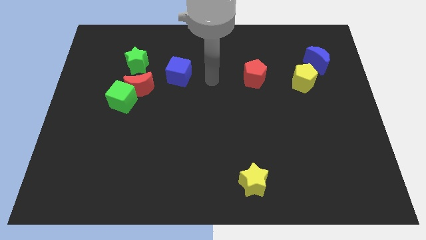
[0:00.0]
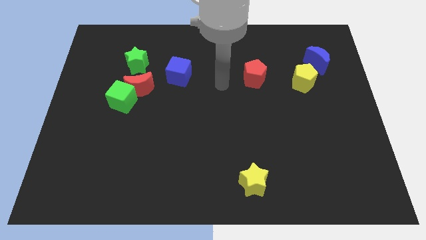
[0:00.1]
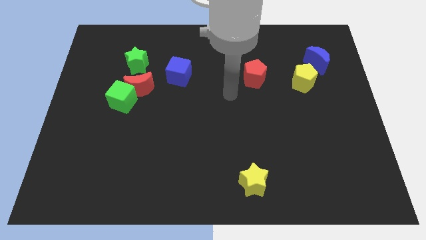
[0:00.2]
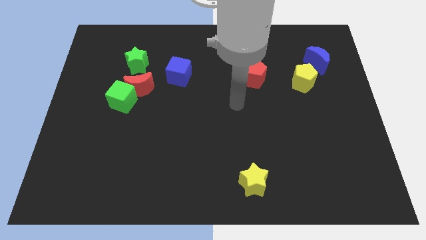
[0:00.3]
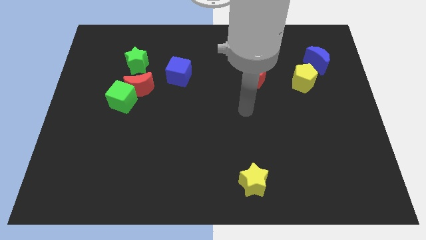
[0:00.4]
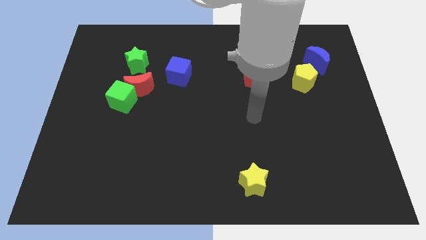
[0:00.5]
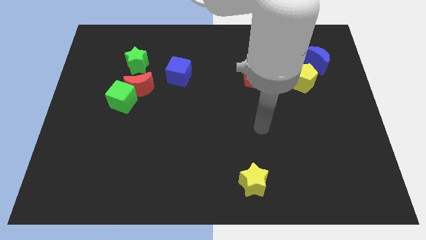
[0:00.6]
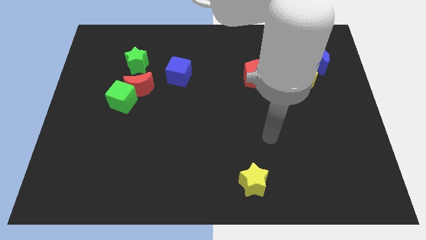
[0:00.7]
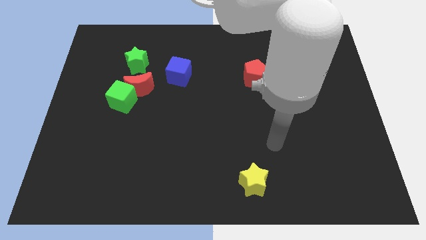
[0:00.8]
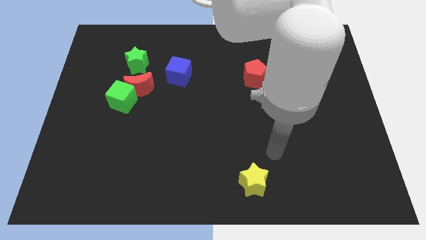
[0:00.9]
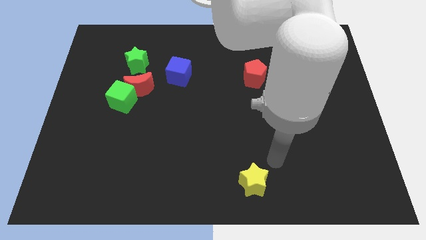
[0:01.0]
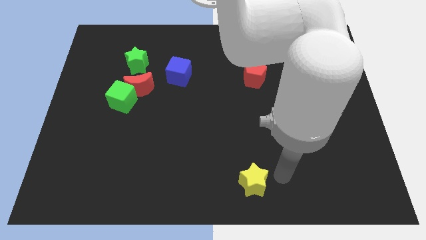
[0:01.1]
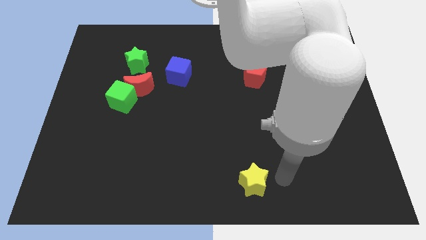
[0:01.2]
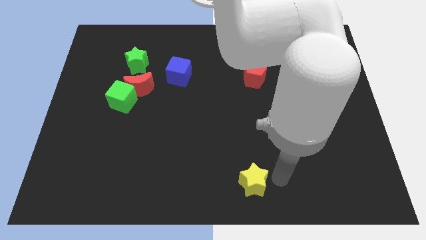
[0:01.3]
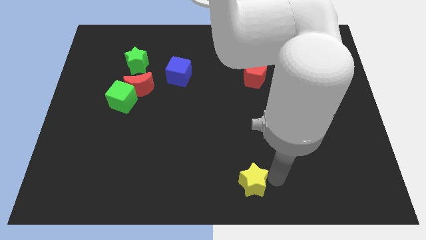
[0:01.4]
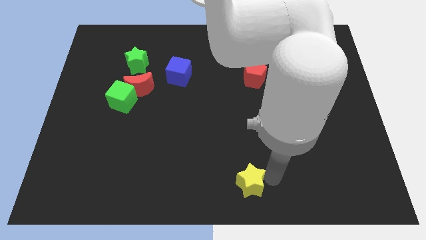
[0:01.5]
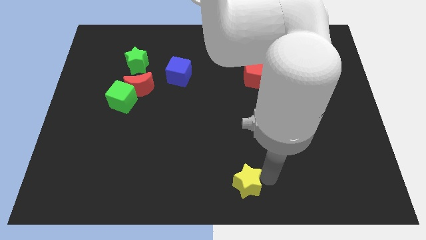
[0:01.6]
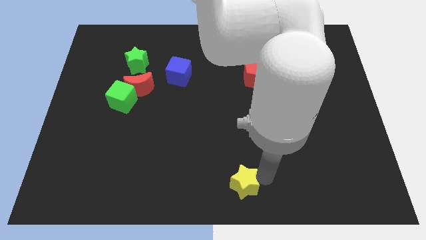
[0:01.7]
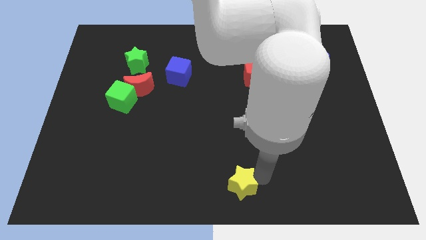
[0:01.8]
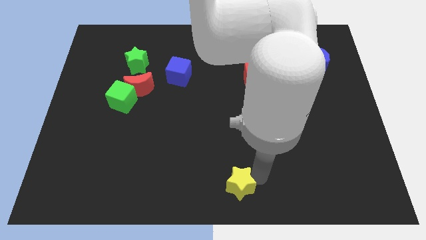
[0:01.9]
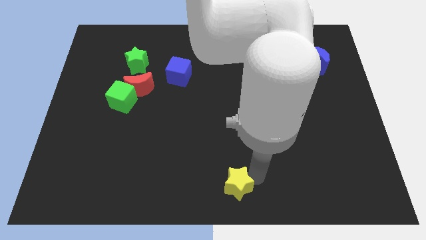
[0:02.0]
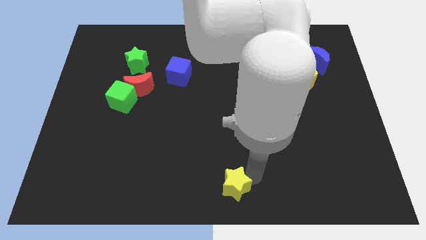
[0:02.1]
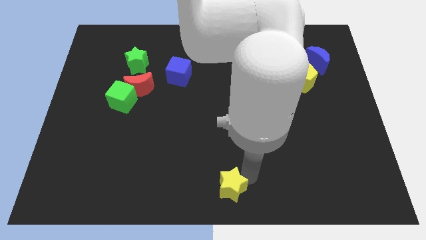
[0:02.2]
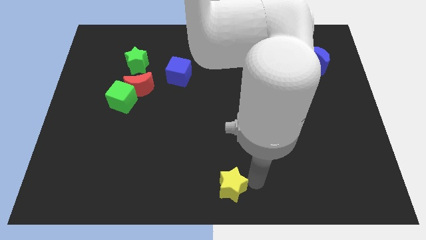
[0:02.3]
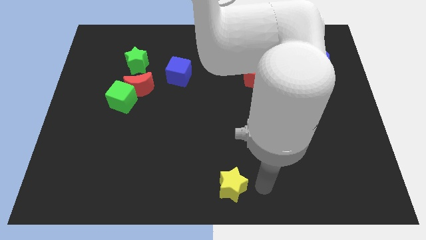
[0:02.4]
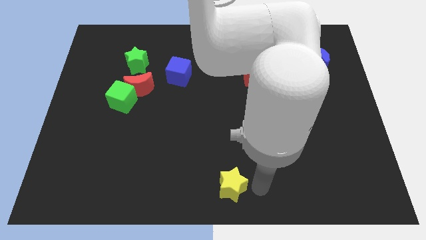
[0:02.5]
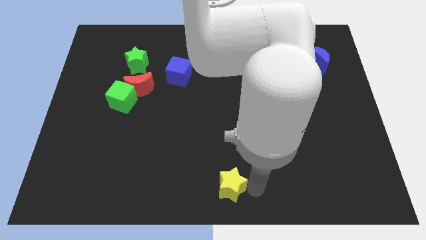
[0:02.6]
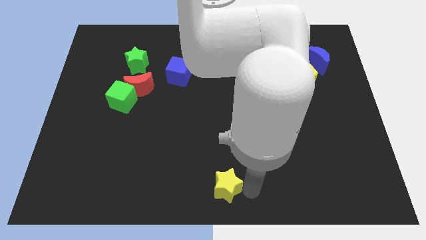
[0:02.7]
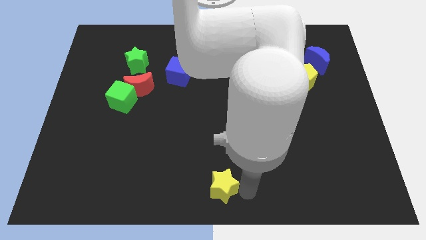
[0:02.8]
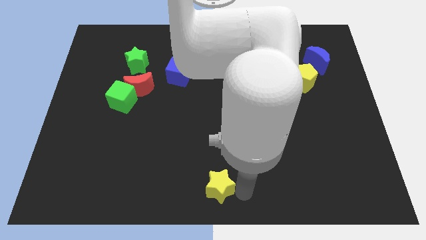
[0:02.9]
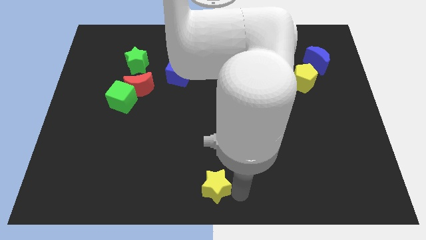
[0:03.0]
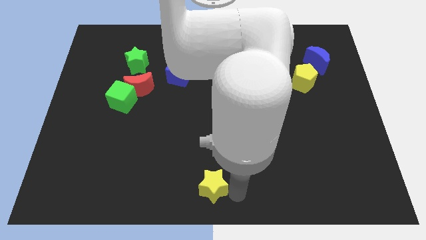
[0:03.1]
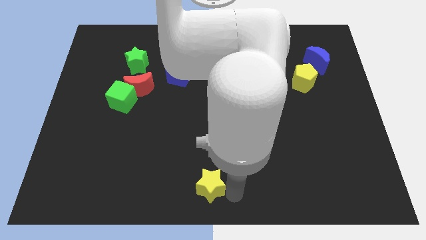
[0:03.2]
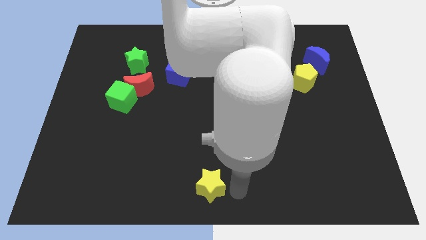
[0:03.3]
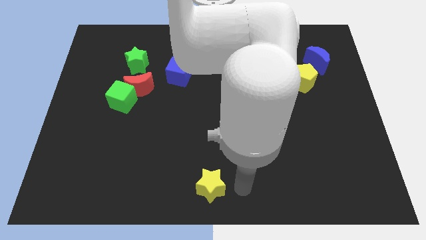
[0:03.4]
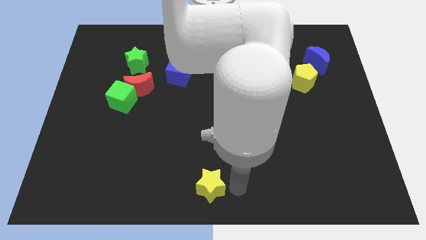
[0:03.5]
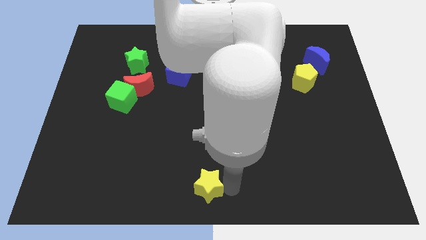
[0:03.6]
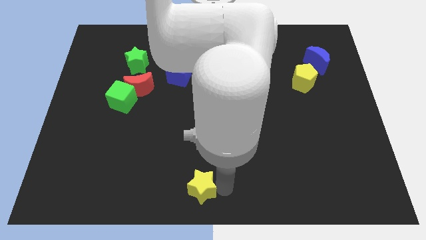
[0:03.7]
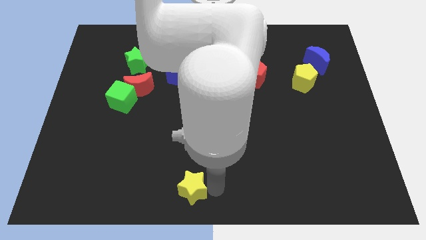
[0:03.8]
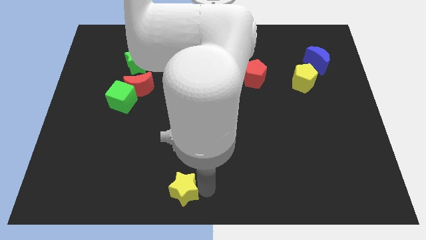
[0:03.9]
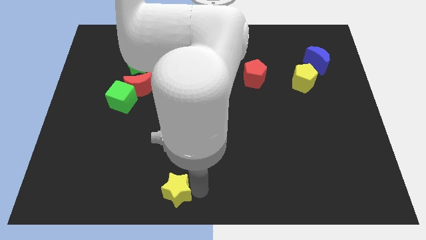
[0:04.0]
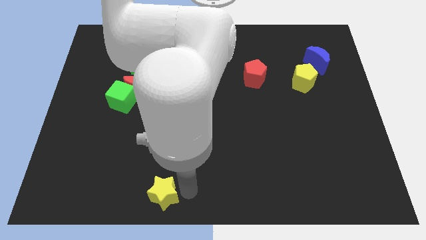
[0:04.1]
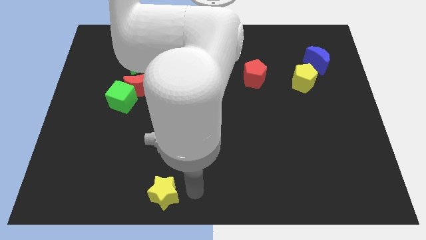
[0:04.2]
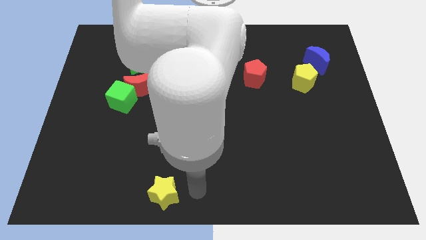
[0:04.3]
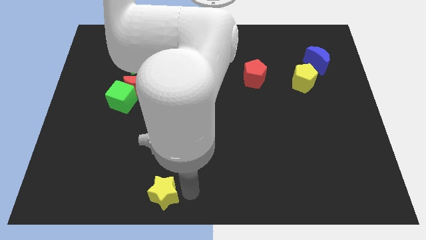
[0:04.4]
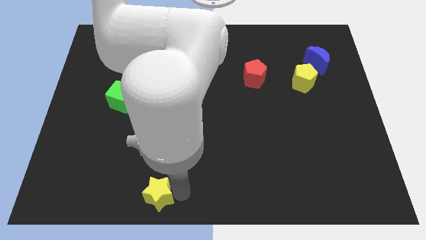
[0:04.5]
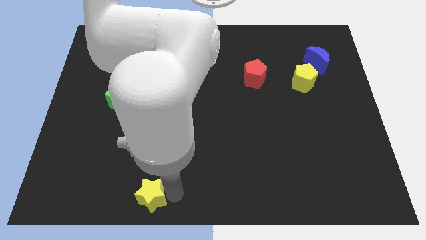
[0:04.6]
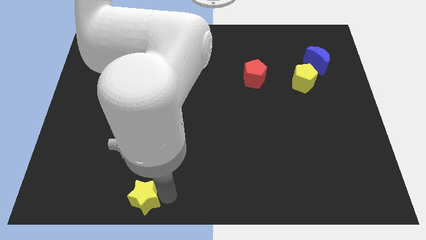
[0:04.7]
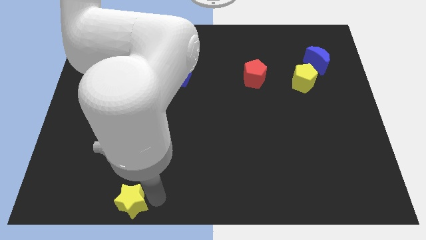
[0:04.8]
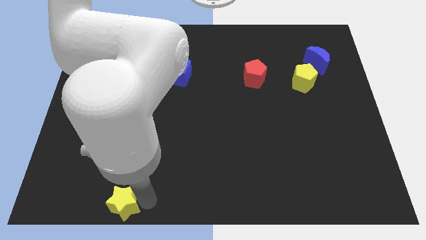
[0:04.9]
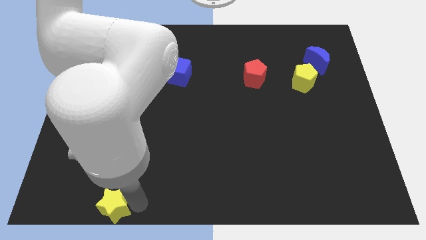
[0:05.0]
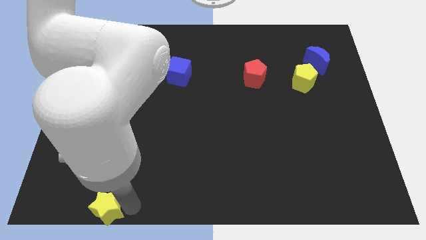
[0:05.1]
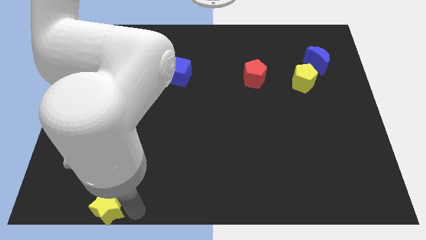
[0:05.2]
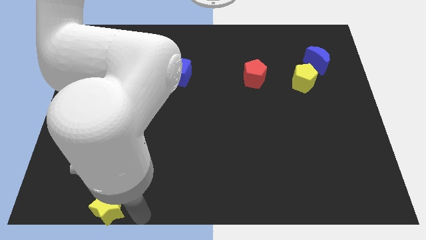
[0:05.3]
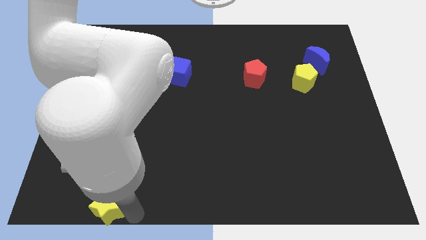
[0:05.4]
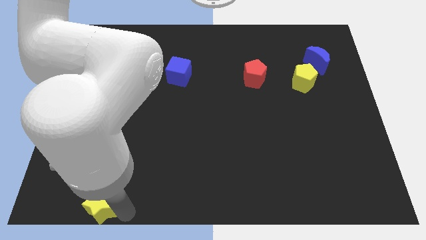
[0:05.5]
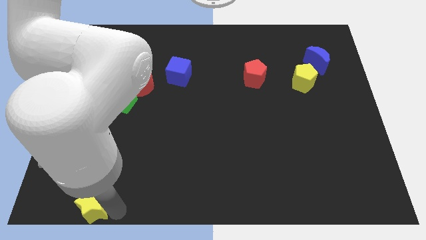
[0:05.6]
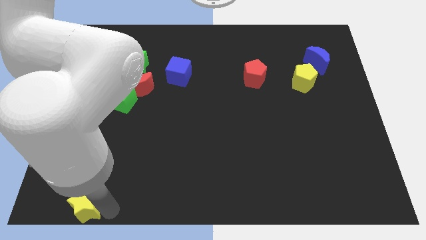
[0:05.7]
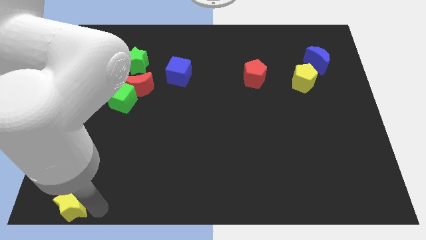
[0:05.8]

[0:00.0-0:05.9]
slide the yellow star to the bottom left
